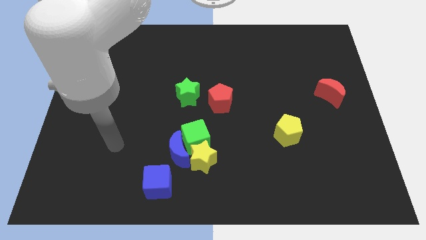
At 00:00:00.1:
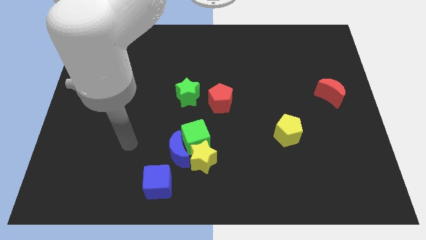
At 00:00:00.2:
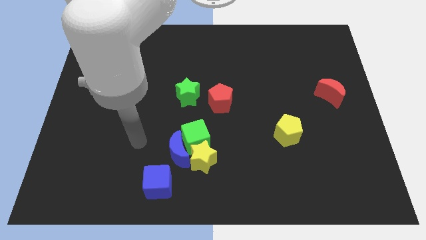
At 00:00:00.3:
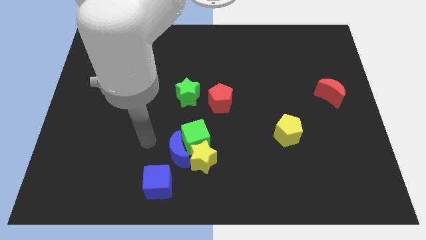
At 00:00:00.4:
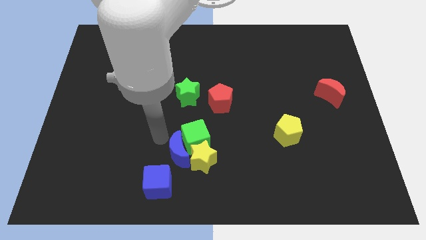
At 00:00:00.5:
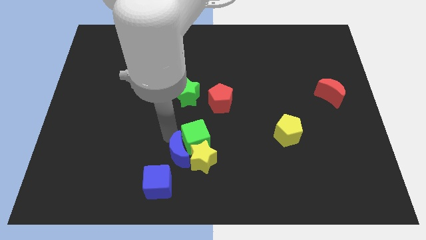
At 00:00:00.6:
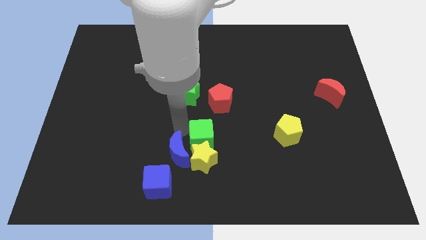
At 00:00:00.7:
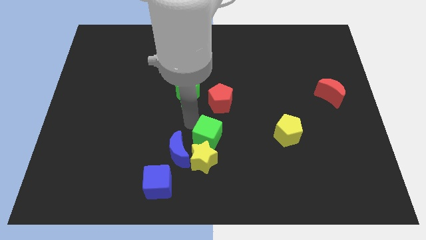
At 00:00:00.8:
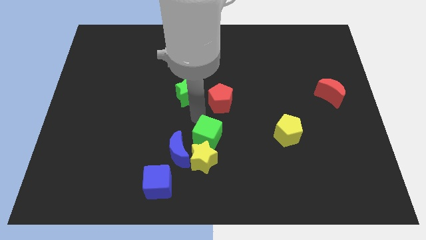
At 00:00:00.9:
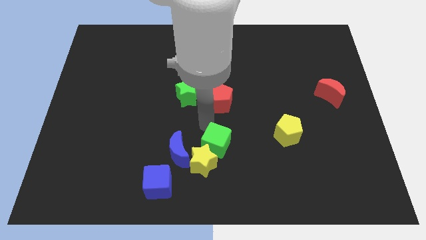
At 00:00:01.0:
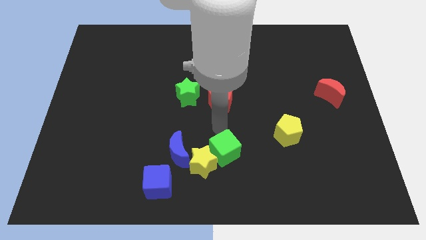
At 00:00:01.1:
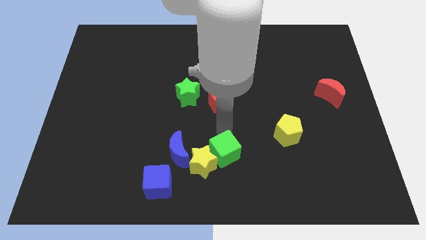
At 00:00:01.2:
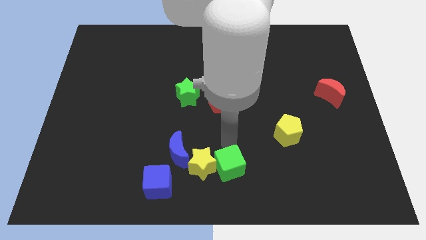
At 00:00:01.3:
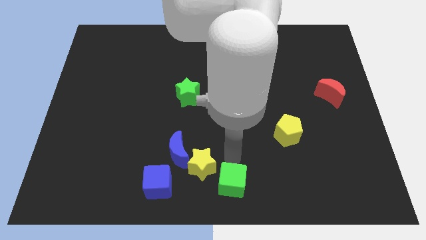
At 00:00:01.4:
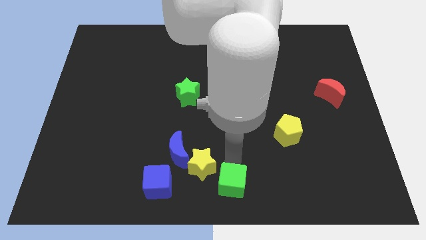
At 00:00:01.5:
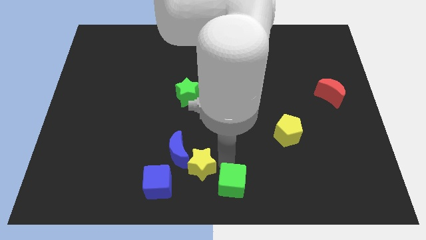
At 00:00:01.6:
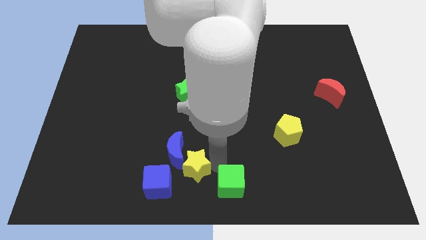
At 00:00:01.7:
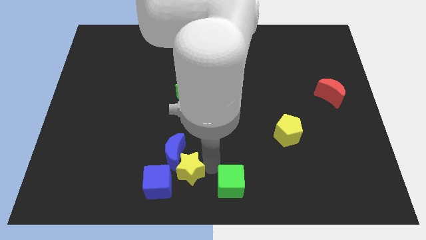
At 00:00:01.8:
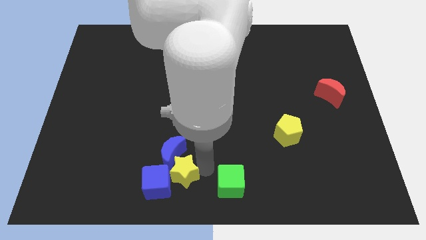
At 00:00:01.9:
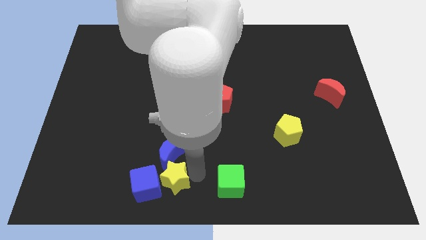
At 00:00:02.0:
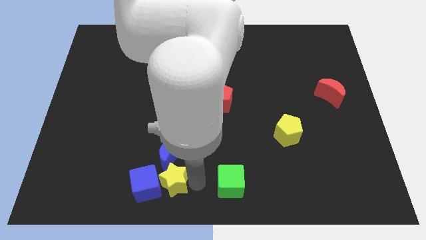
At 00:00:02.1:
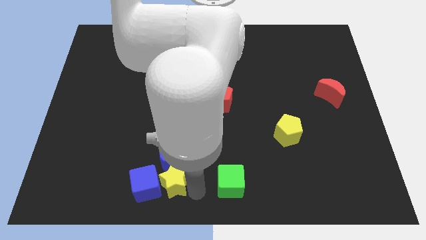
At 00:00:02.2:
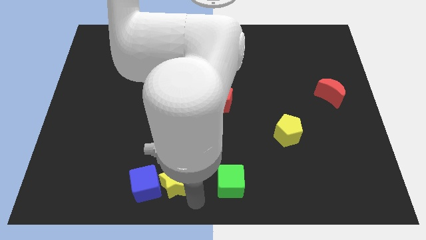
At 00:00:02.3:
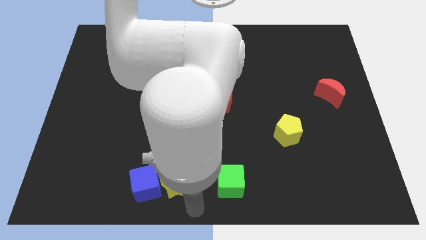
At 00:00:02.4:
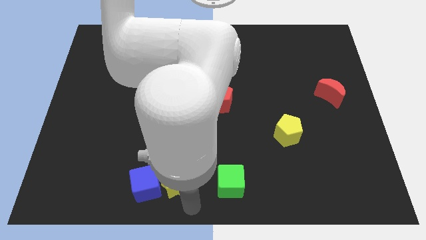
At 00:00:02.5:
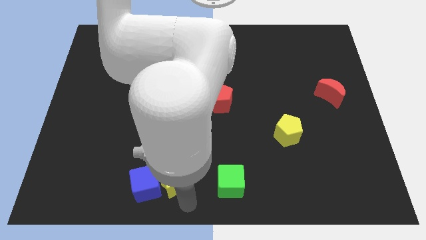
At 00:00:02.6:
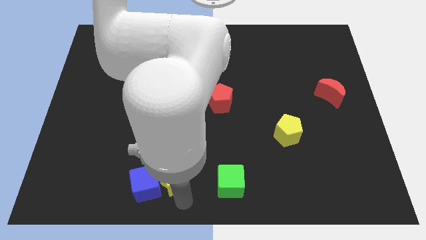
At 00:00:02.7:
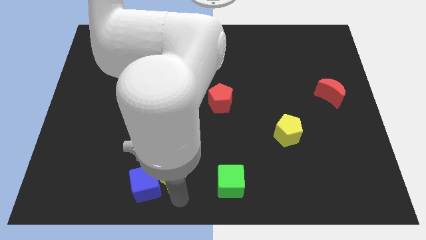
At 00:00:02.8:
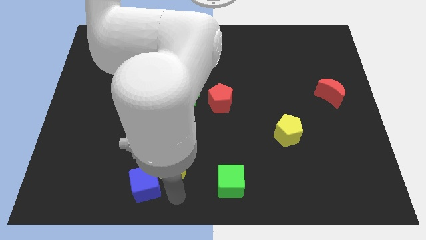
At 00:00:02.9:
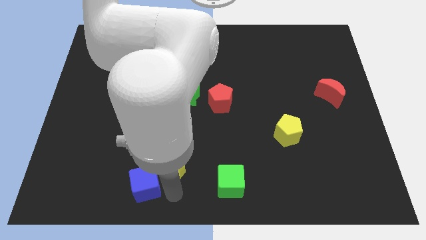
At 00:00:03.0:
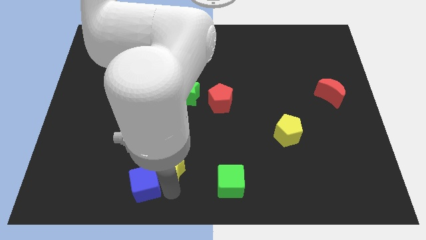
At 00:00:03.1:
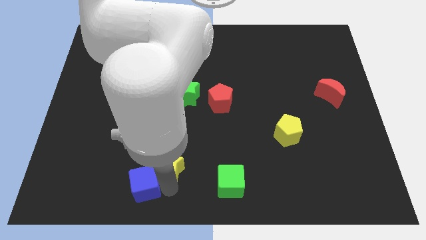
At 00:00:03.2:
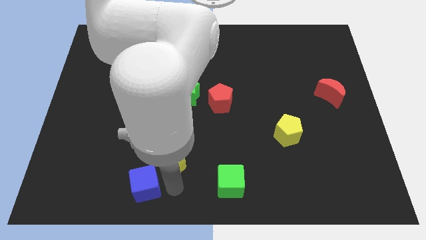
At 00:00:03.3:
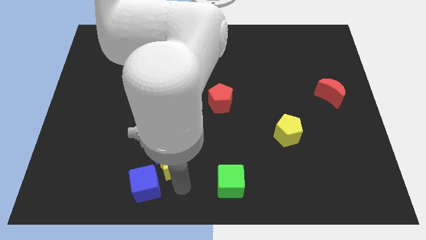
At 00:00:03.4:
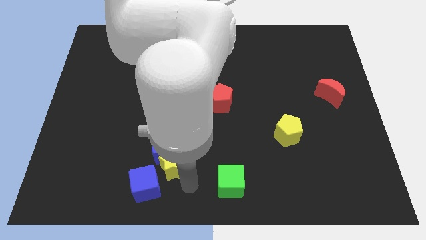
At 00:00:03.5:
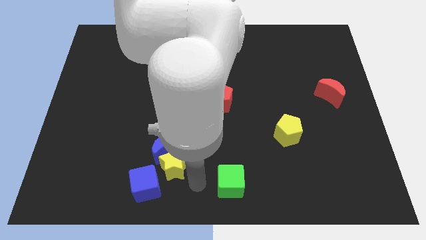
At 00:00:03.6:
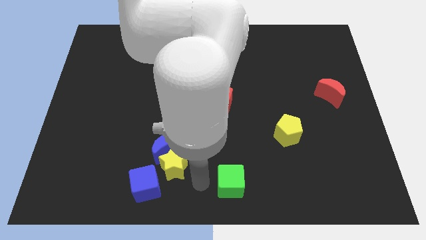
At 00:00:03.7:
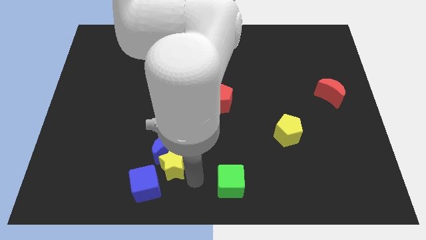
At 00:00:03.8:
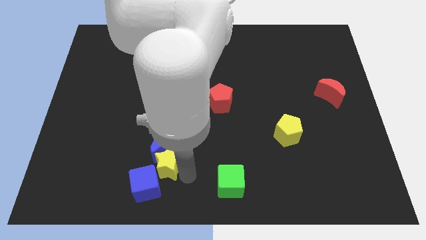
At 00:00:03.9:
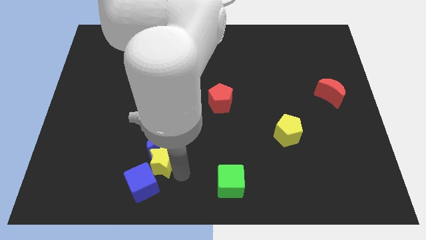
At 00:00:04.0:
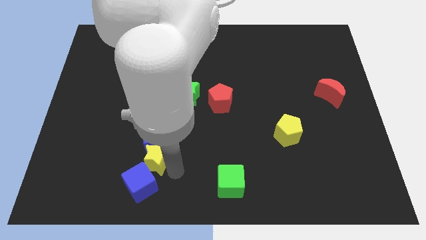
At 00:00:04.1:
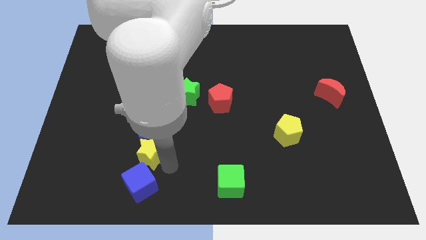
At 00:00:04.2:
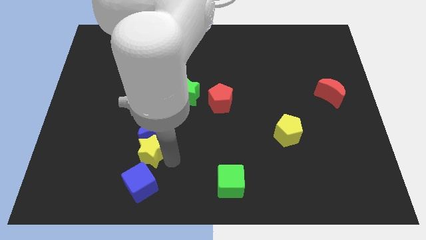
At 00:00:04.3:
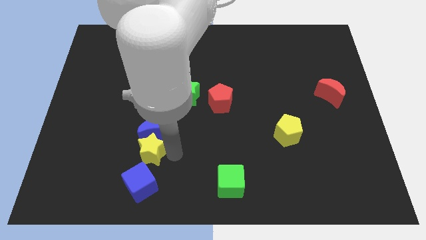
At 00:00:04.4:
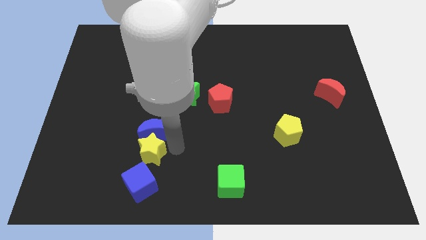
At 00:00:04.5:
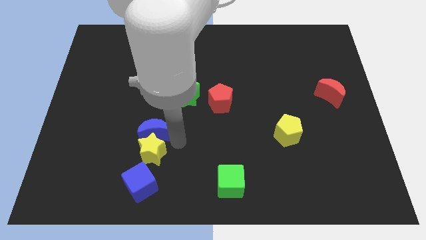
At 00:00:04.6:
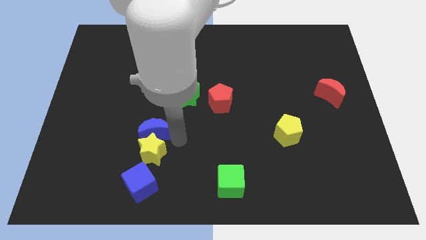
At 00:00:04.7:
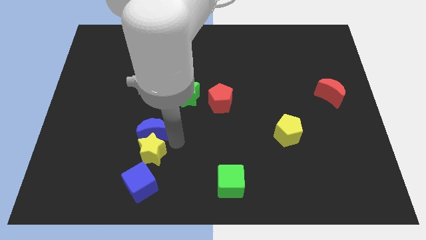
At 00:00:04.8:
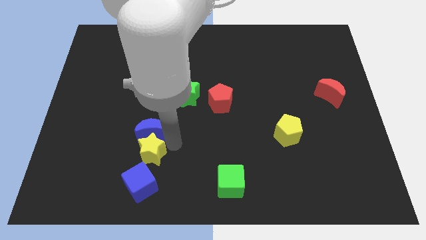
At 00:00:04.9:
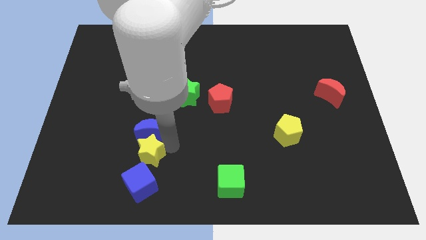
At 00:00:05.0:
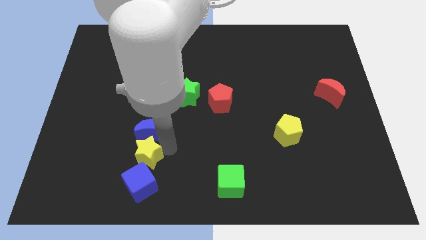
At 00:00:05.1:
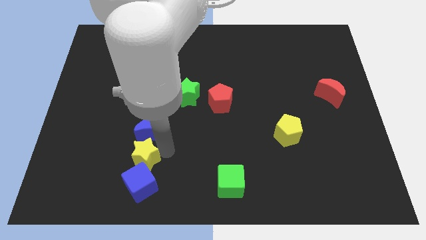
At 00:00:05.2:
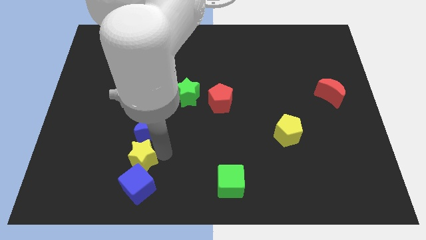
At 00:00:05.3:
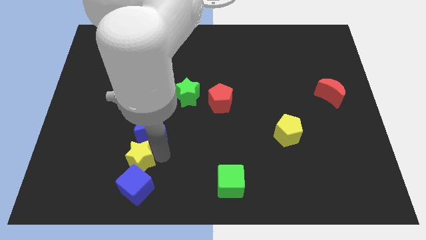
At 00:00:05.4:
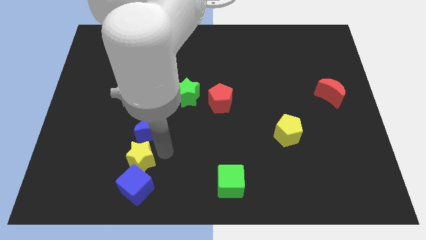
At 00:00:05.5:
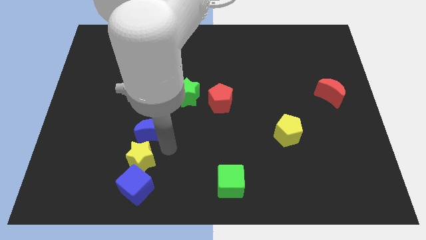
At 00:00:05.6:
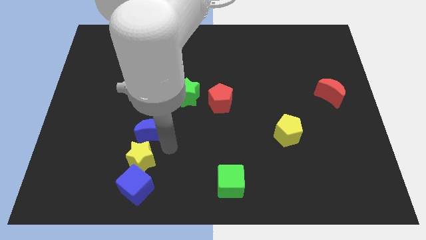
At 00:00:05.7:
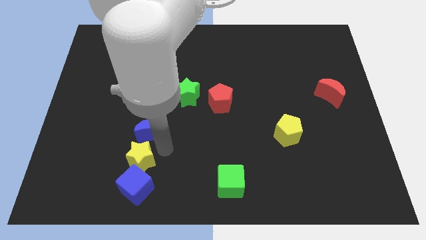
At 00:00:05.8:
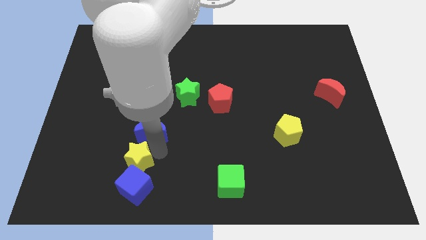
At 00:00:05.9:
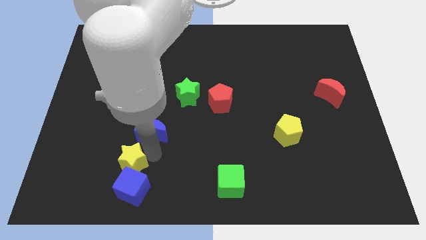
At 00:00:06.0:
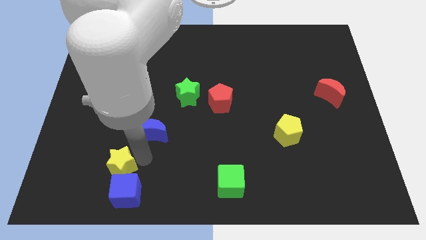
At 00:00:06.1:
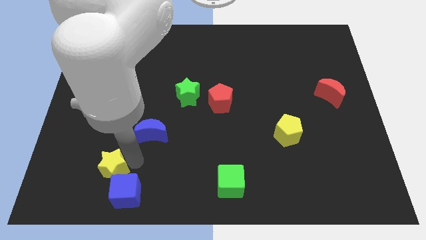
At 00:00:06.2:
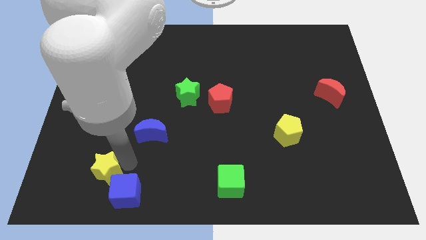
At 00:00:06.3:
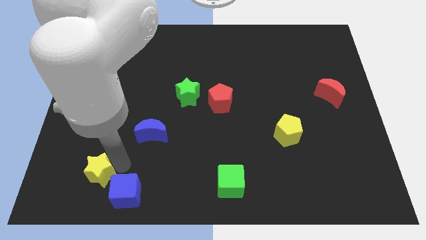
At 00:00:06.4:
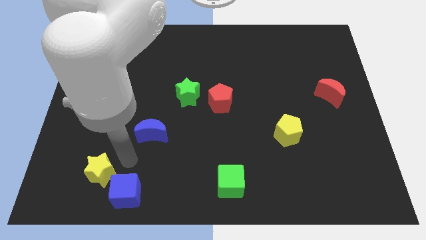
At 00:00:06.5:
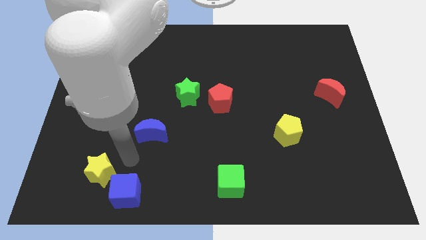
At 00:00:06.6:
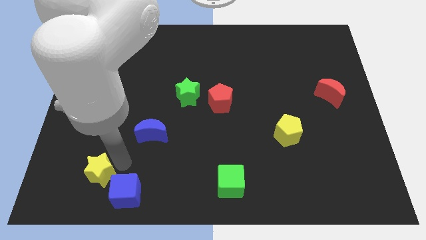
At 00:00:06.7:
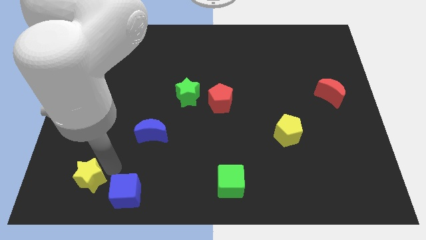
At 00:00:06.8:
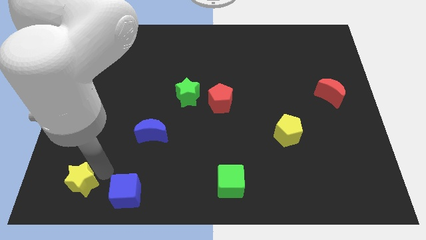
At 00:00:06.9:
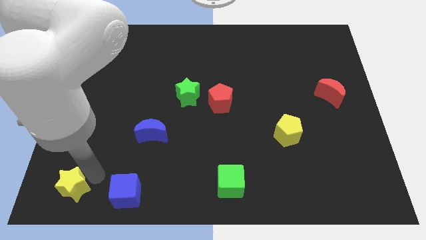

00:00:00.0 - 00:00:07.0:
slide the yellow star to the bottom left
